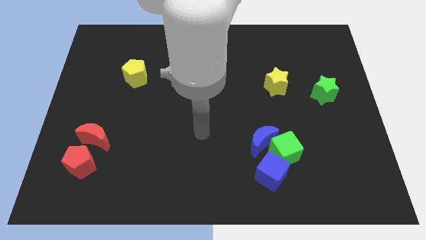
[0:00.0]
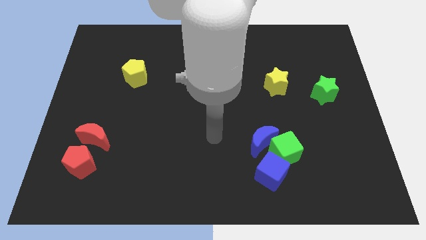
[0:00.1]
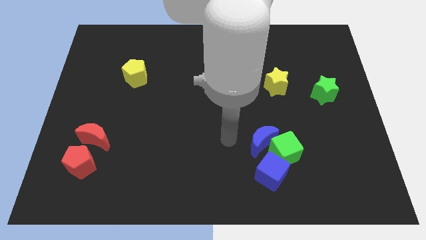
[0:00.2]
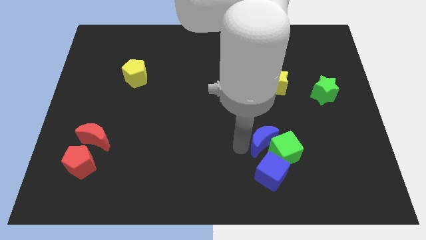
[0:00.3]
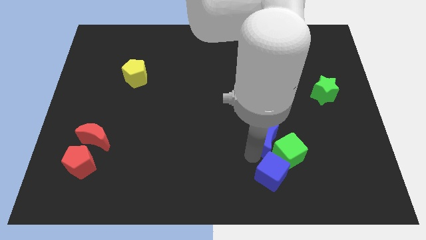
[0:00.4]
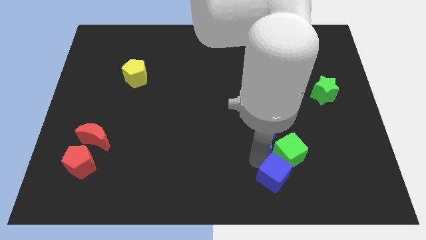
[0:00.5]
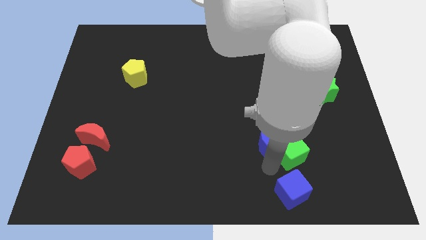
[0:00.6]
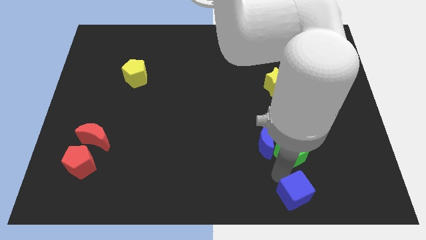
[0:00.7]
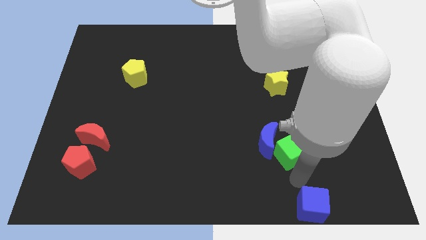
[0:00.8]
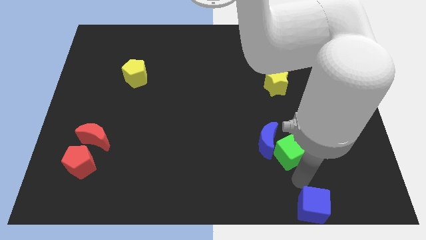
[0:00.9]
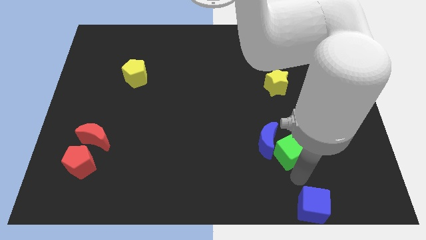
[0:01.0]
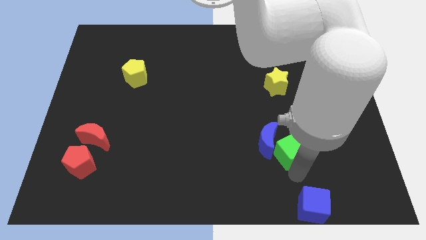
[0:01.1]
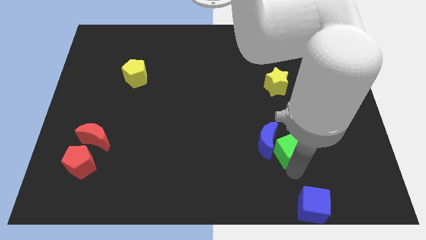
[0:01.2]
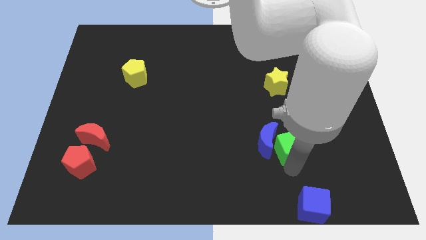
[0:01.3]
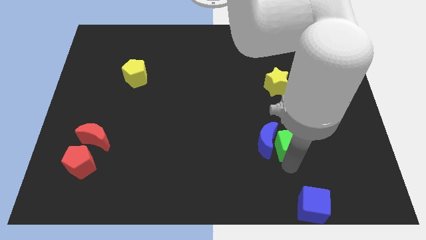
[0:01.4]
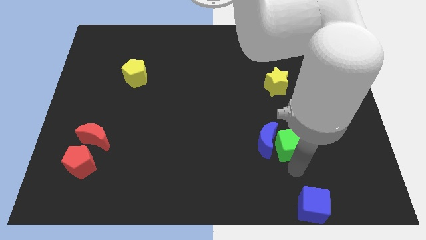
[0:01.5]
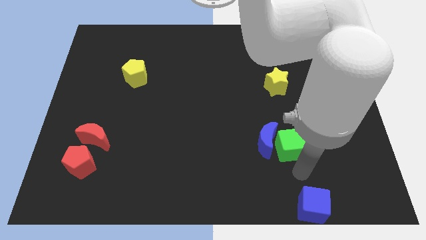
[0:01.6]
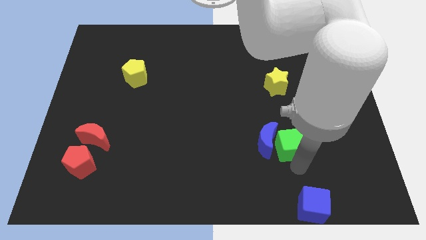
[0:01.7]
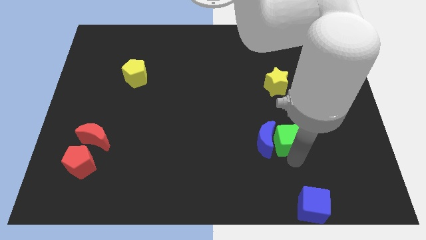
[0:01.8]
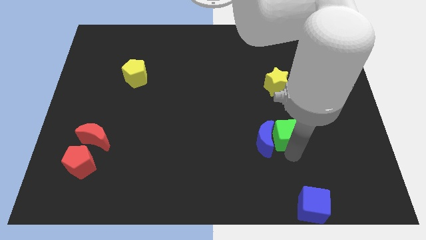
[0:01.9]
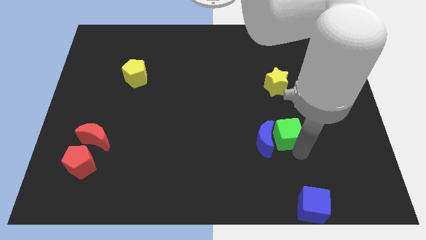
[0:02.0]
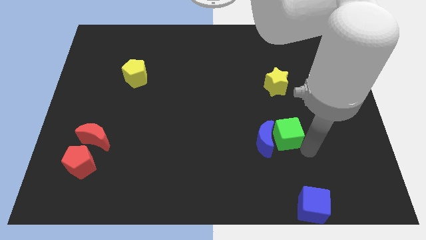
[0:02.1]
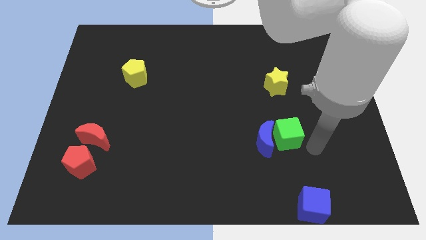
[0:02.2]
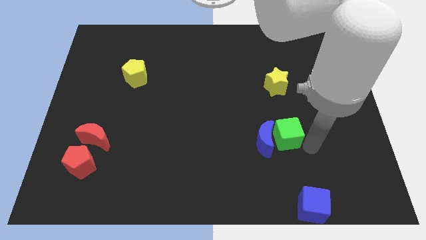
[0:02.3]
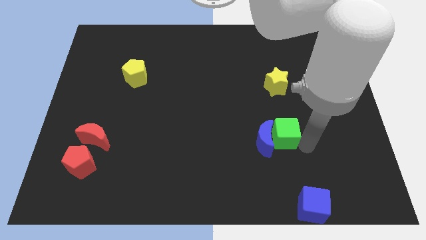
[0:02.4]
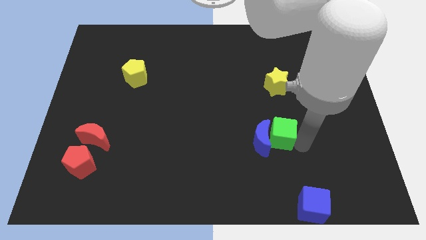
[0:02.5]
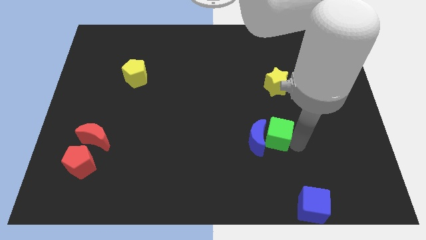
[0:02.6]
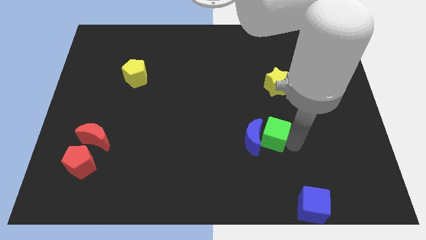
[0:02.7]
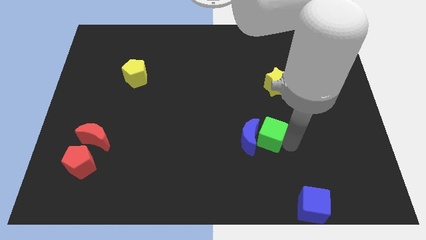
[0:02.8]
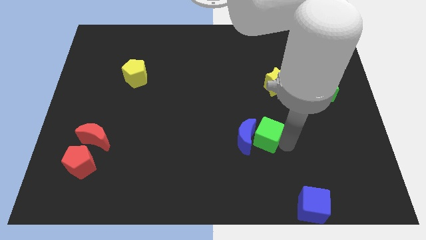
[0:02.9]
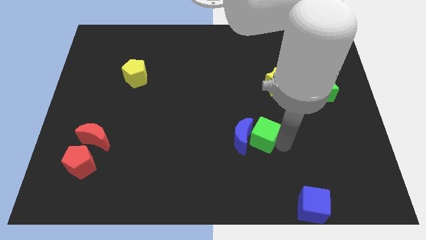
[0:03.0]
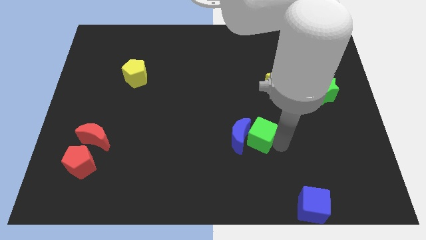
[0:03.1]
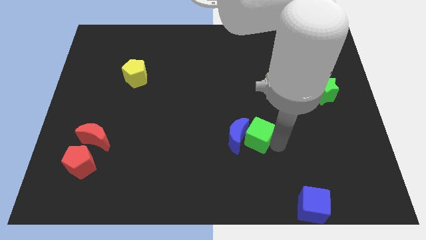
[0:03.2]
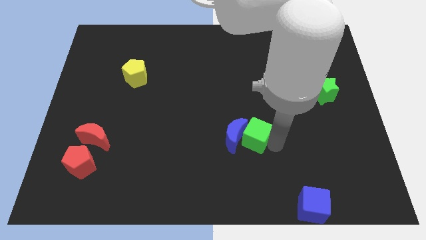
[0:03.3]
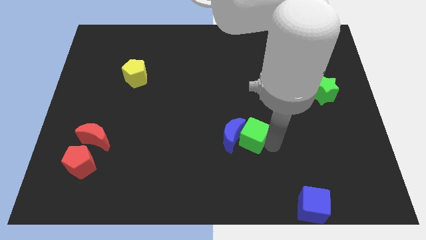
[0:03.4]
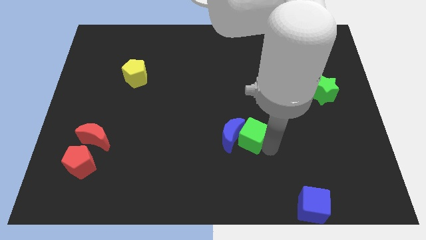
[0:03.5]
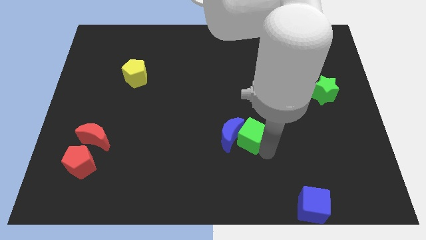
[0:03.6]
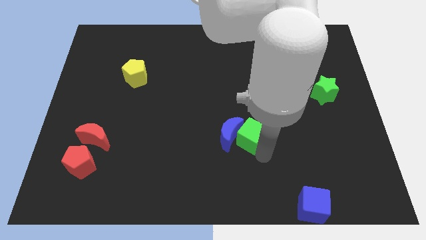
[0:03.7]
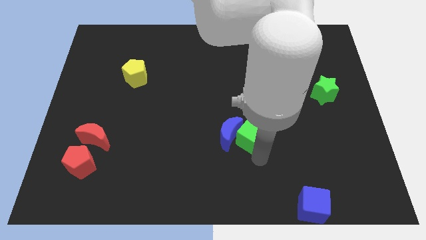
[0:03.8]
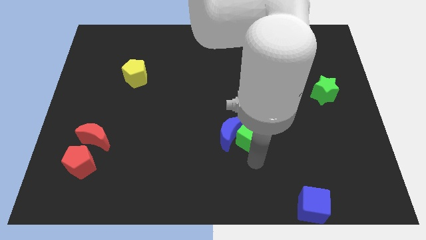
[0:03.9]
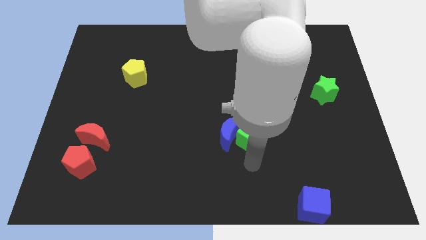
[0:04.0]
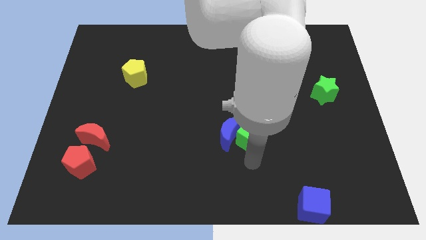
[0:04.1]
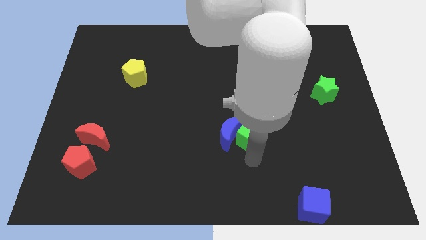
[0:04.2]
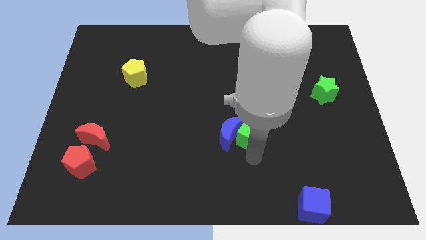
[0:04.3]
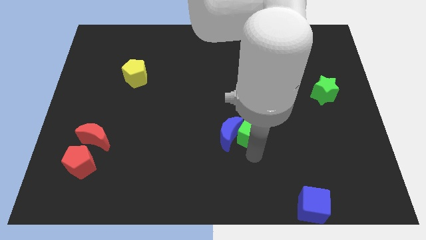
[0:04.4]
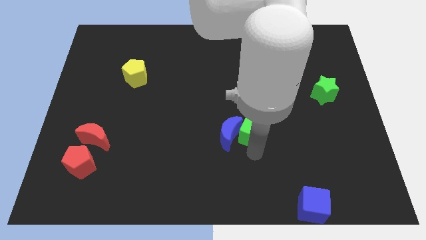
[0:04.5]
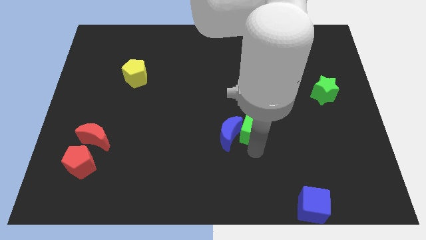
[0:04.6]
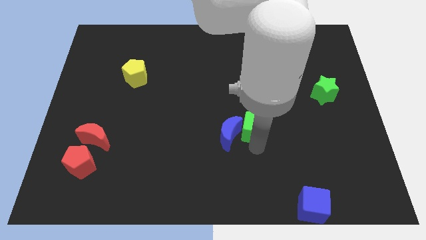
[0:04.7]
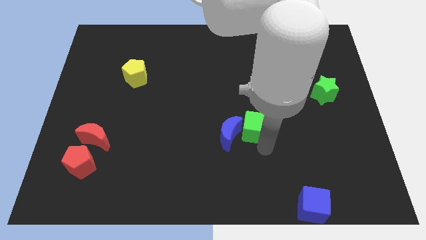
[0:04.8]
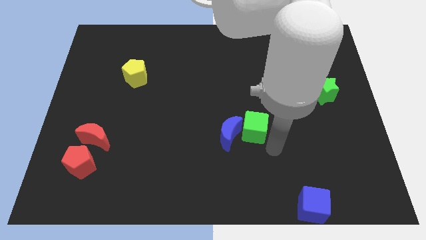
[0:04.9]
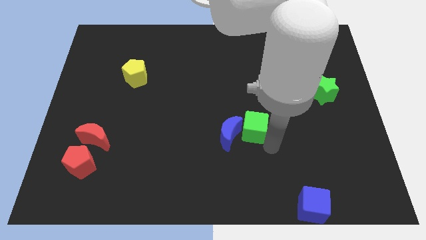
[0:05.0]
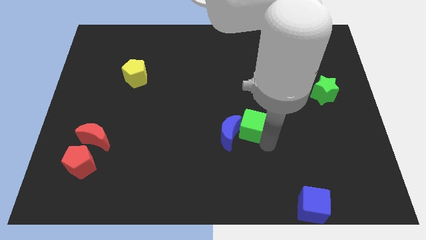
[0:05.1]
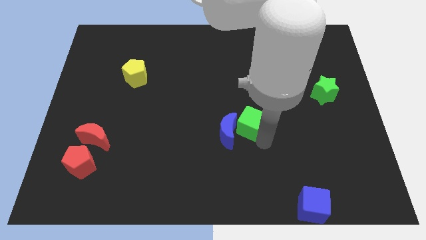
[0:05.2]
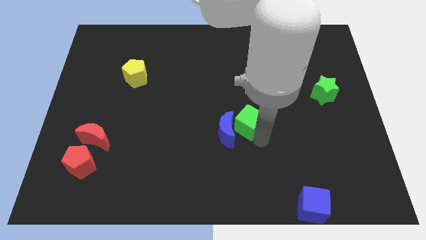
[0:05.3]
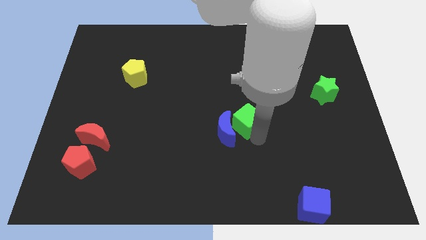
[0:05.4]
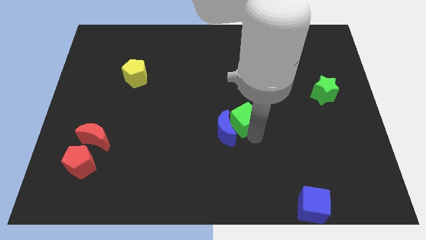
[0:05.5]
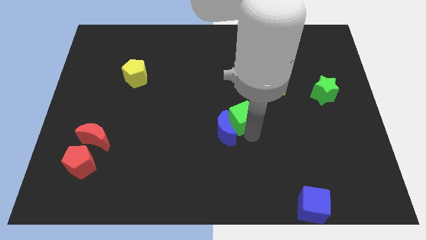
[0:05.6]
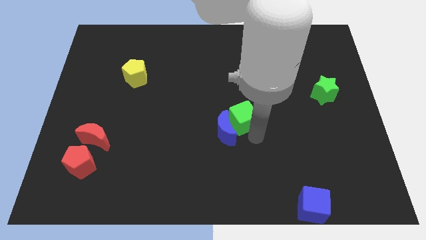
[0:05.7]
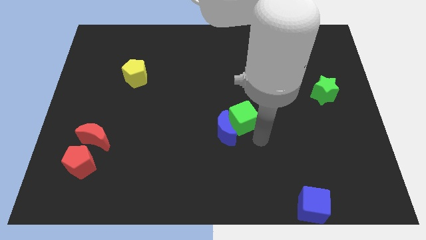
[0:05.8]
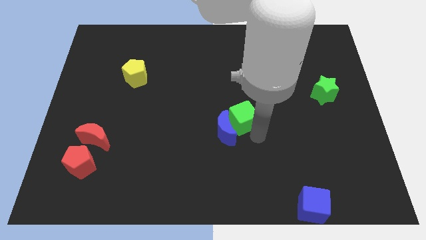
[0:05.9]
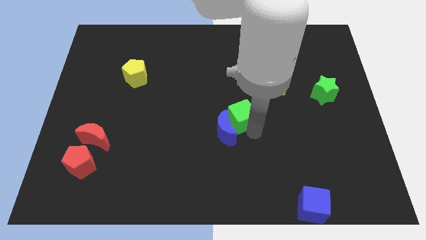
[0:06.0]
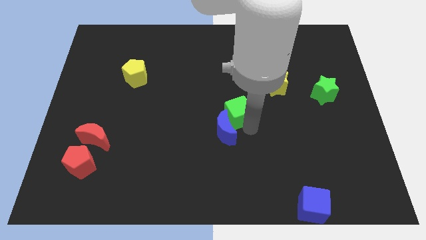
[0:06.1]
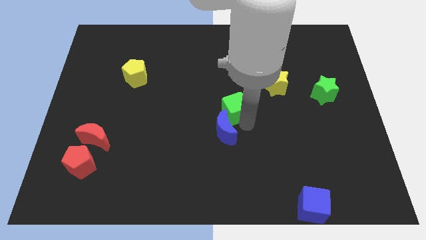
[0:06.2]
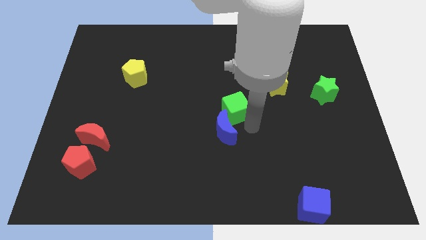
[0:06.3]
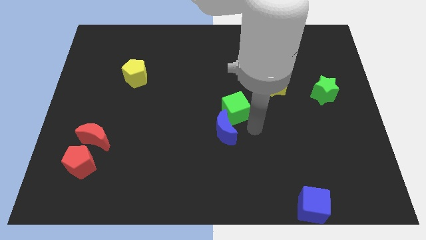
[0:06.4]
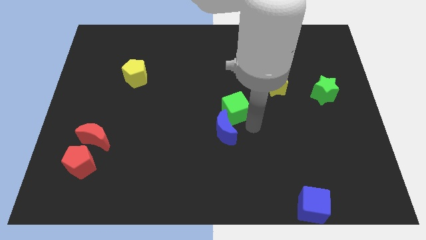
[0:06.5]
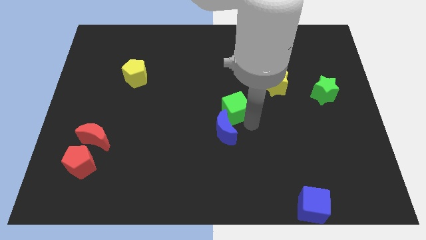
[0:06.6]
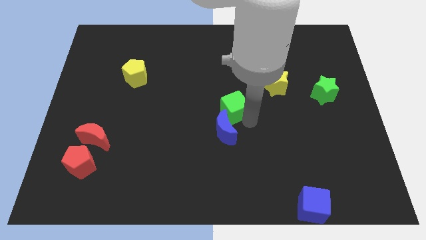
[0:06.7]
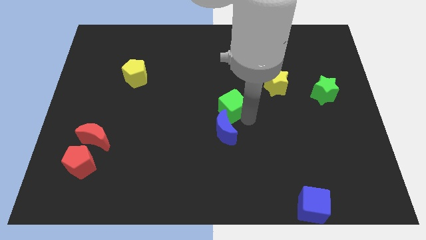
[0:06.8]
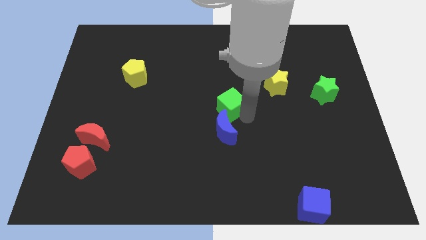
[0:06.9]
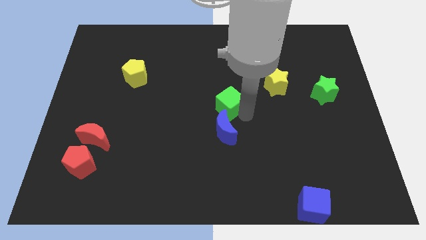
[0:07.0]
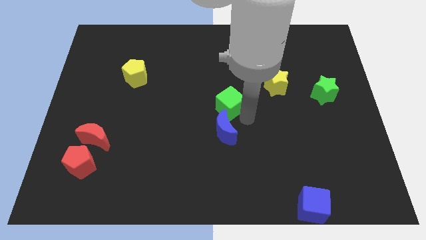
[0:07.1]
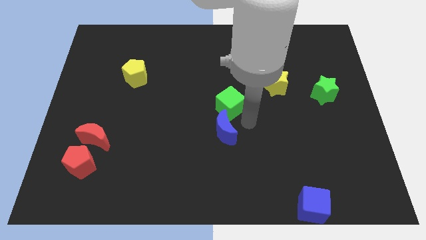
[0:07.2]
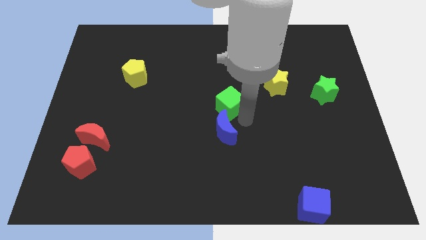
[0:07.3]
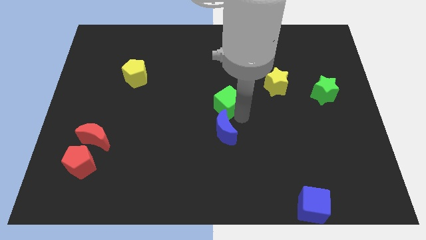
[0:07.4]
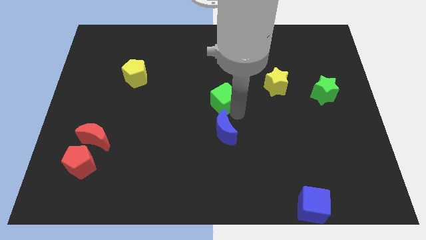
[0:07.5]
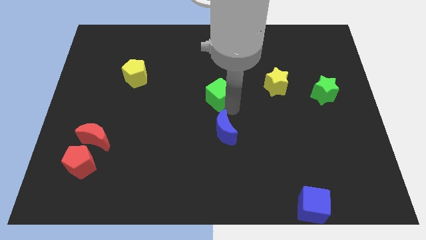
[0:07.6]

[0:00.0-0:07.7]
move the green cube upwards and left
